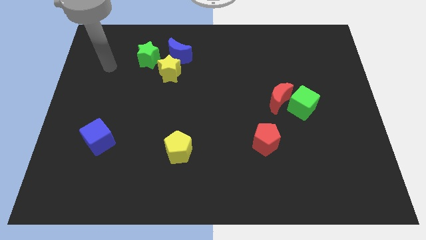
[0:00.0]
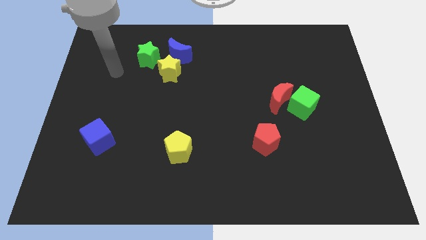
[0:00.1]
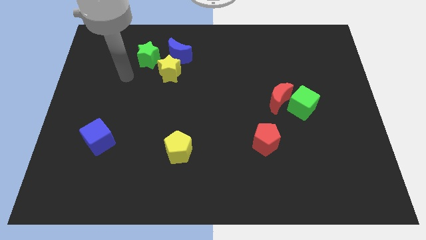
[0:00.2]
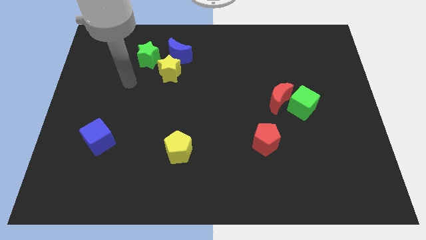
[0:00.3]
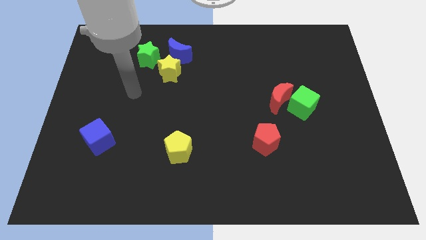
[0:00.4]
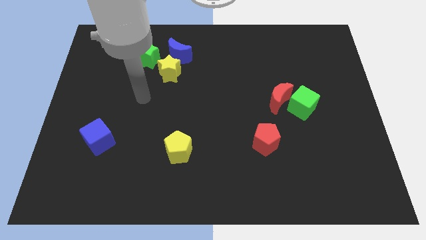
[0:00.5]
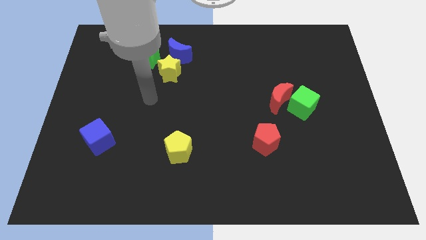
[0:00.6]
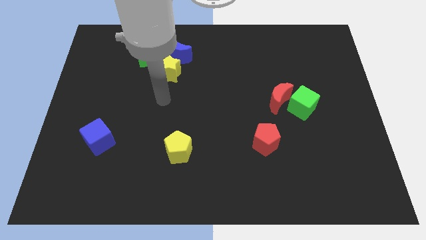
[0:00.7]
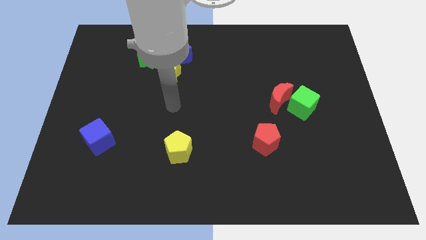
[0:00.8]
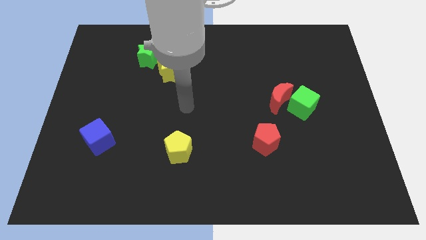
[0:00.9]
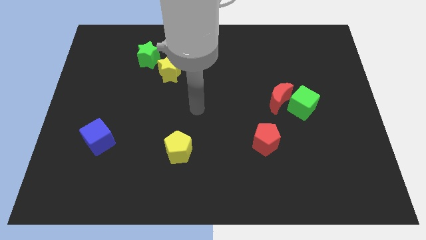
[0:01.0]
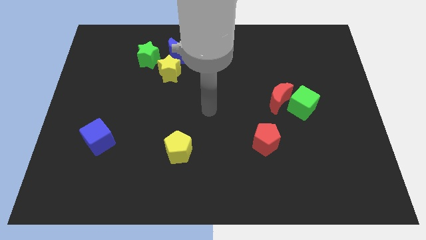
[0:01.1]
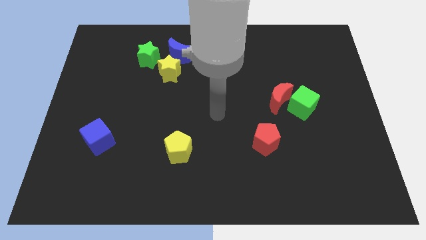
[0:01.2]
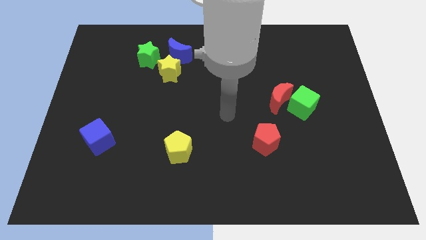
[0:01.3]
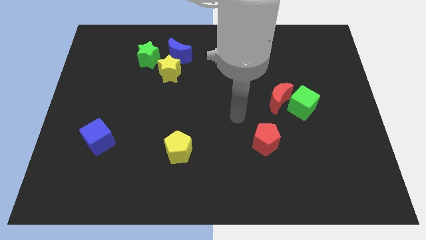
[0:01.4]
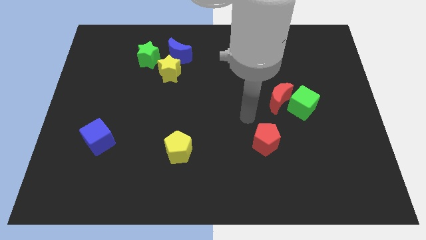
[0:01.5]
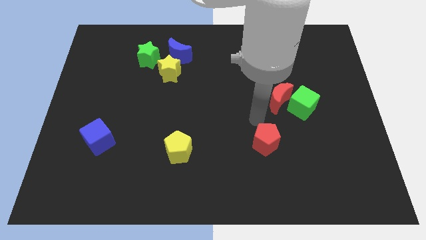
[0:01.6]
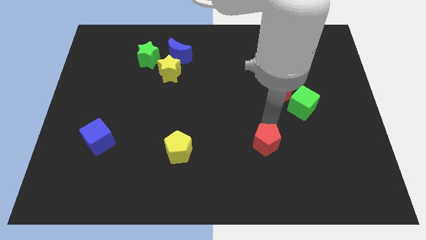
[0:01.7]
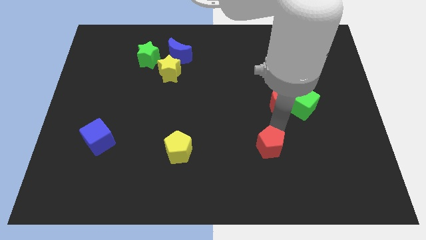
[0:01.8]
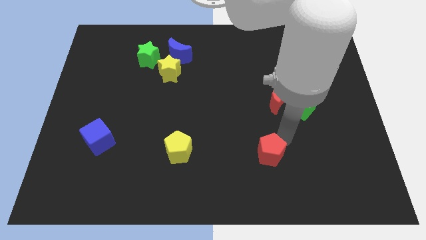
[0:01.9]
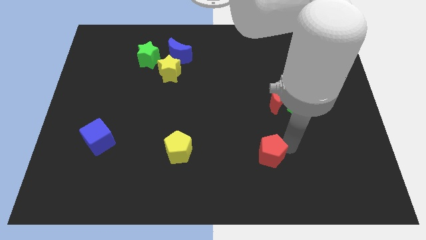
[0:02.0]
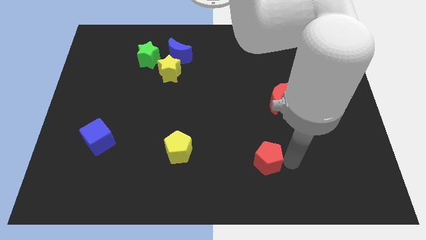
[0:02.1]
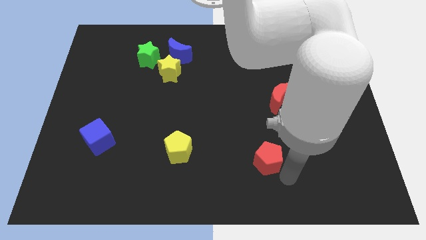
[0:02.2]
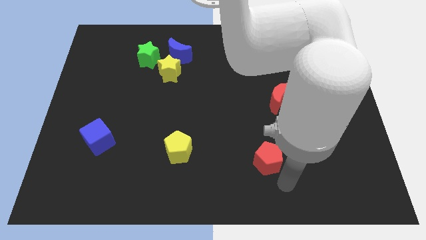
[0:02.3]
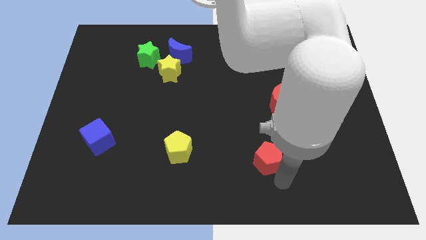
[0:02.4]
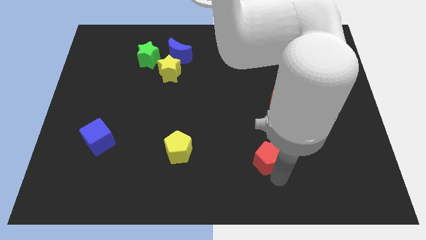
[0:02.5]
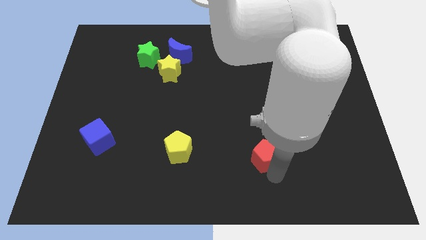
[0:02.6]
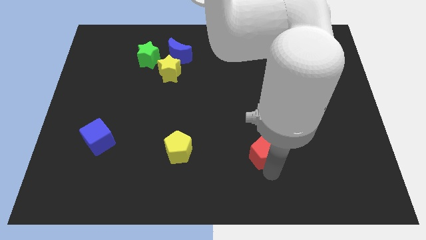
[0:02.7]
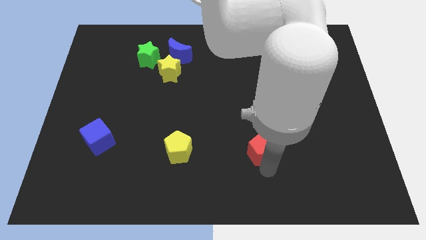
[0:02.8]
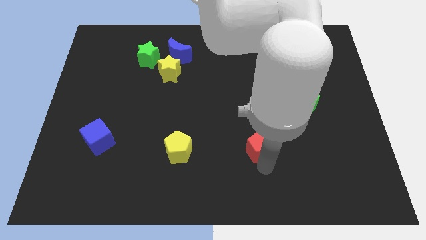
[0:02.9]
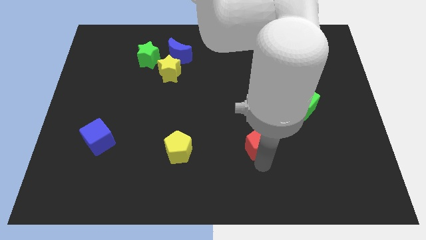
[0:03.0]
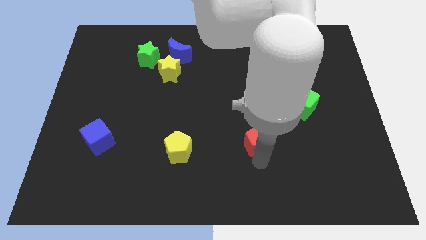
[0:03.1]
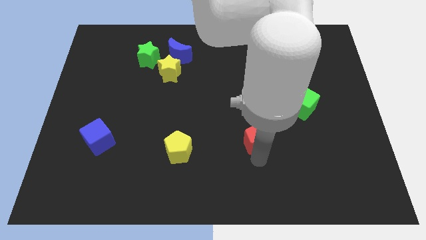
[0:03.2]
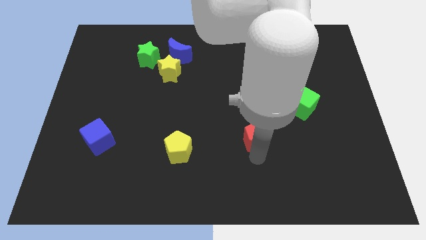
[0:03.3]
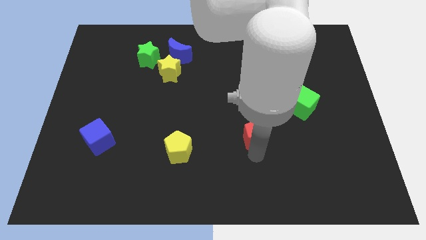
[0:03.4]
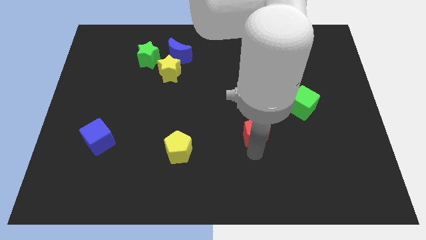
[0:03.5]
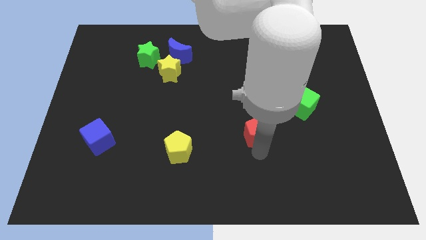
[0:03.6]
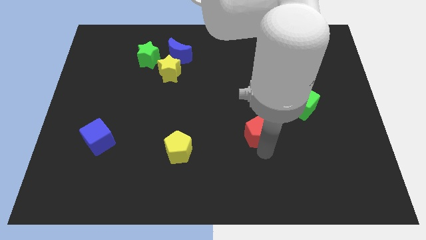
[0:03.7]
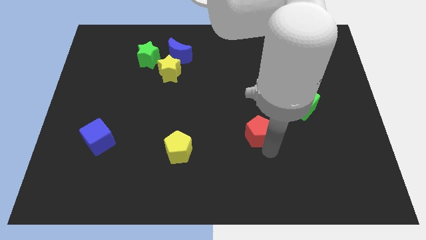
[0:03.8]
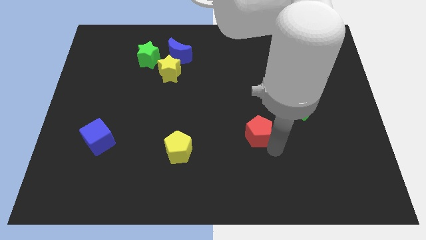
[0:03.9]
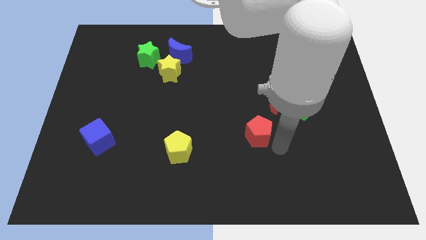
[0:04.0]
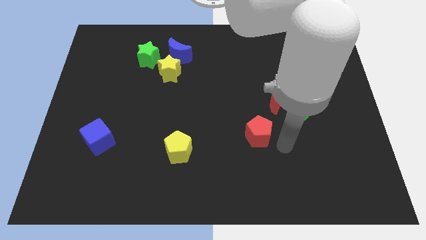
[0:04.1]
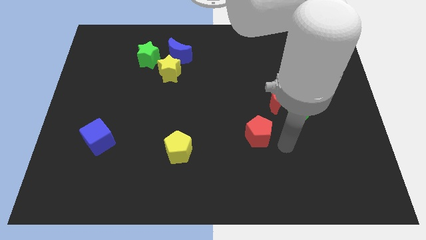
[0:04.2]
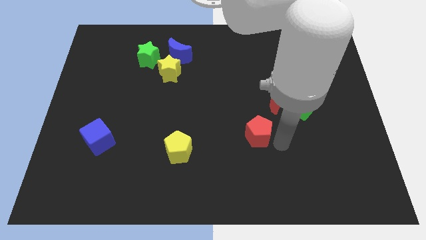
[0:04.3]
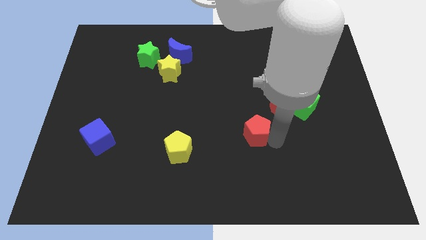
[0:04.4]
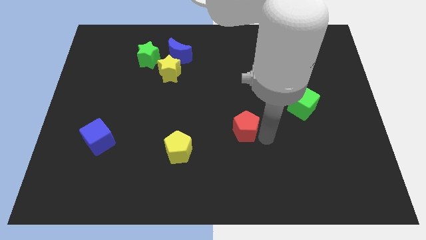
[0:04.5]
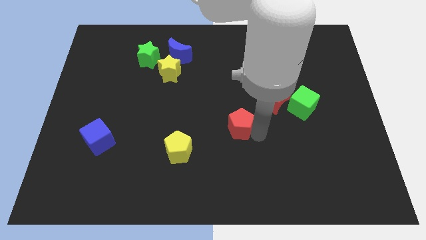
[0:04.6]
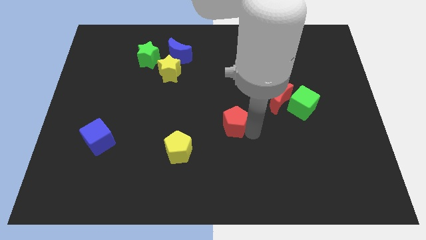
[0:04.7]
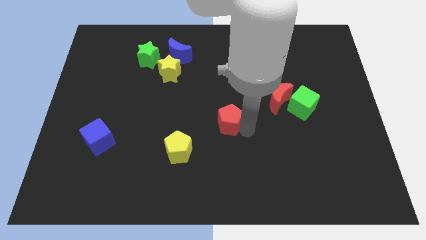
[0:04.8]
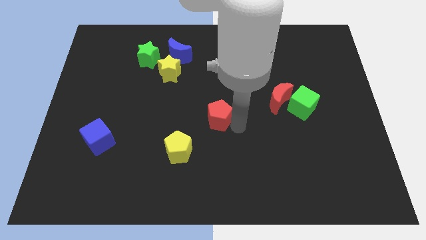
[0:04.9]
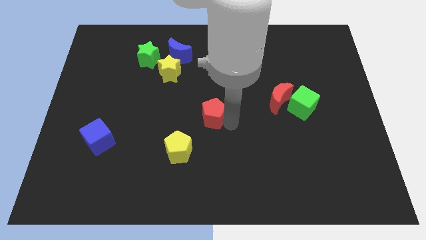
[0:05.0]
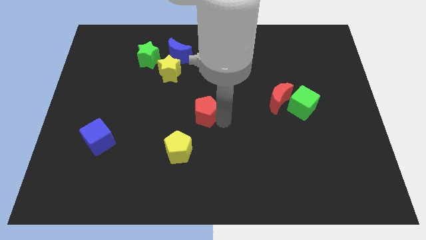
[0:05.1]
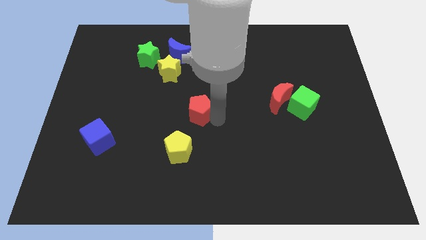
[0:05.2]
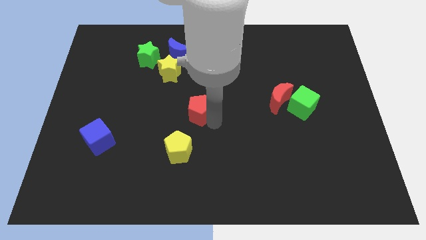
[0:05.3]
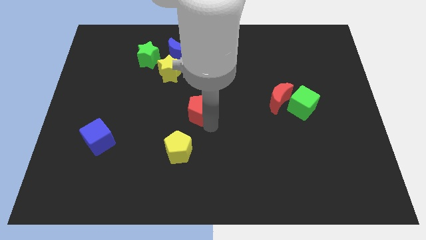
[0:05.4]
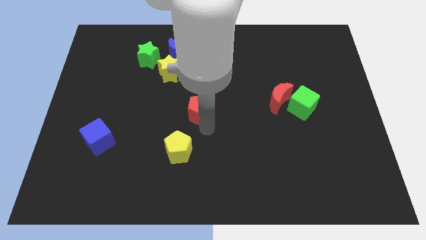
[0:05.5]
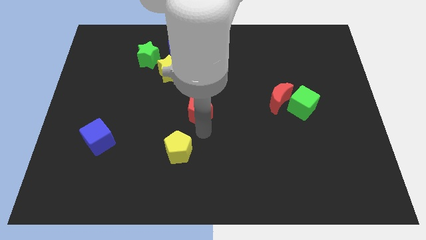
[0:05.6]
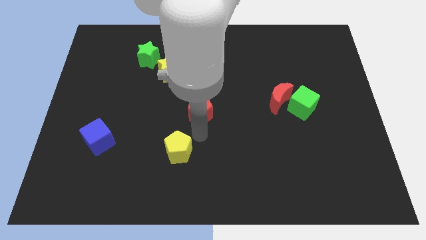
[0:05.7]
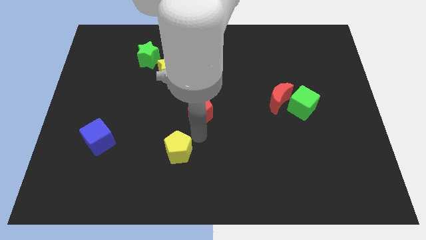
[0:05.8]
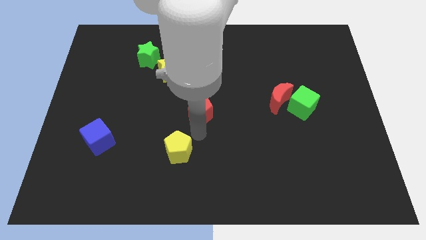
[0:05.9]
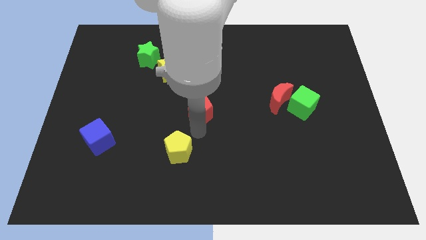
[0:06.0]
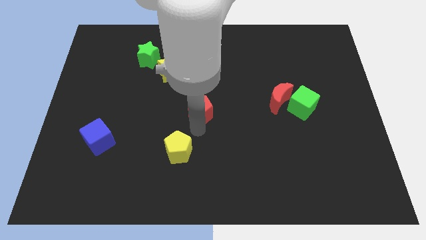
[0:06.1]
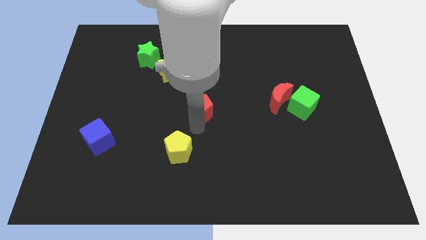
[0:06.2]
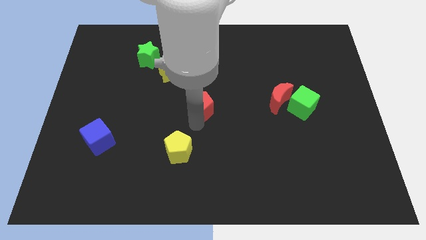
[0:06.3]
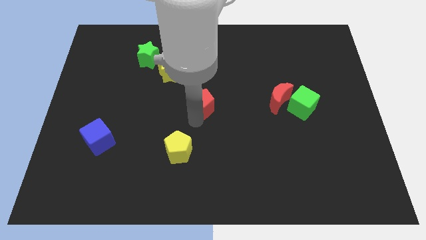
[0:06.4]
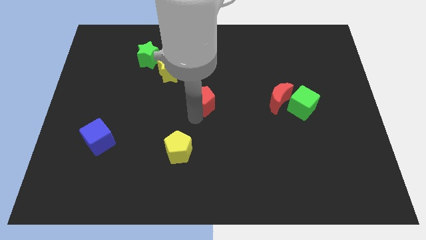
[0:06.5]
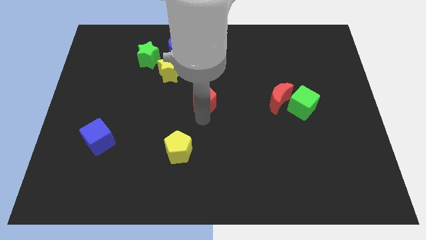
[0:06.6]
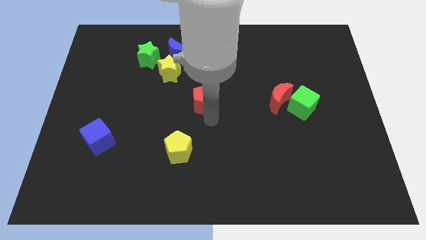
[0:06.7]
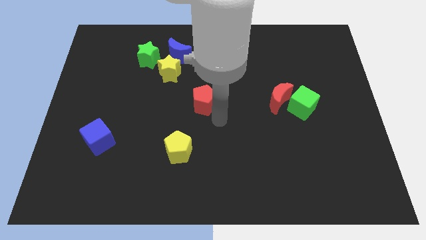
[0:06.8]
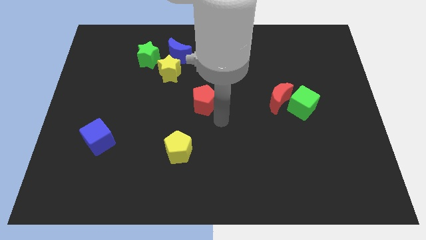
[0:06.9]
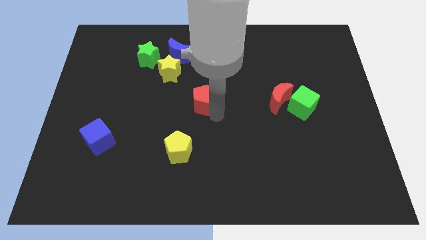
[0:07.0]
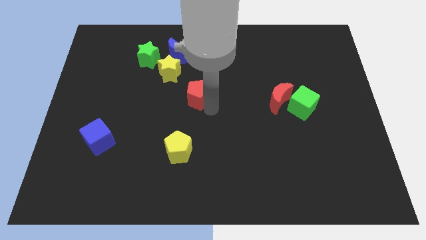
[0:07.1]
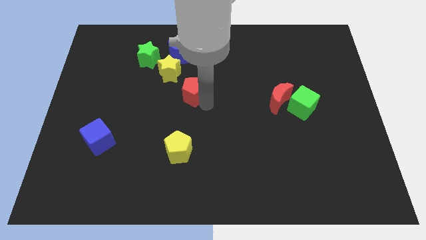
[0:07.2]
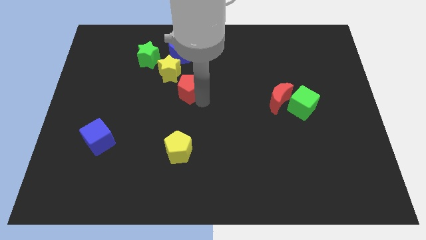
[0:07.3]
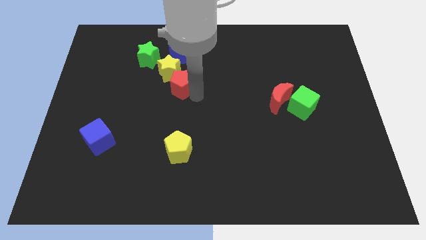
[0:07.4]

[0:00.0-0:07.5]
slide the red pentagon close to the yellow star
